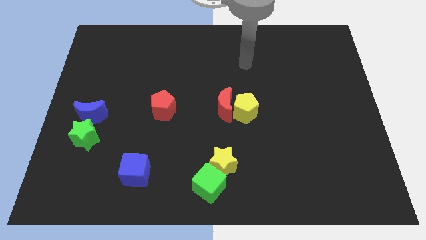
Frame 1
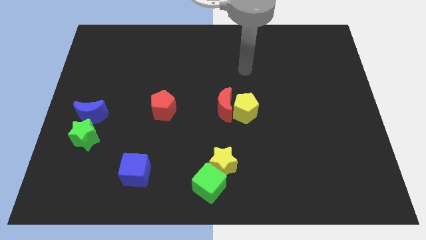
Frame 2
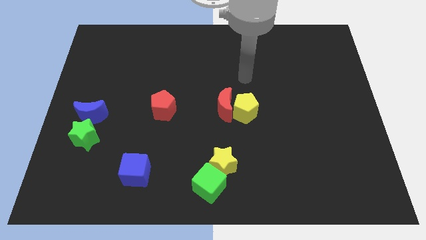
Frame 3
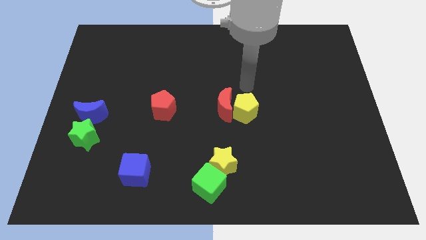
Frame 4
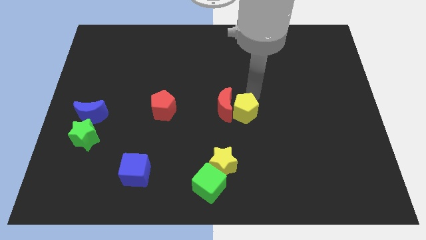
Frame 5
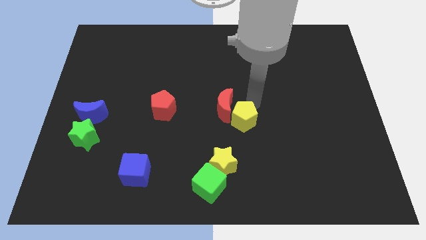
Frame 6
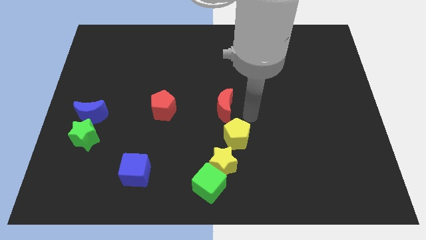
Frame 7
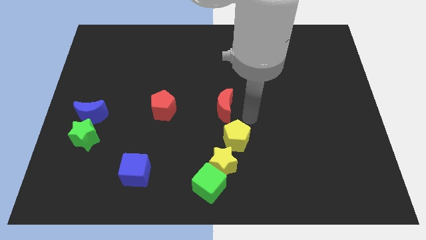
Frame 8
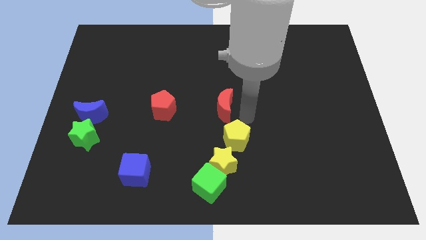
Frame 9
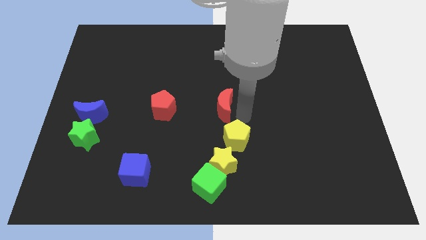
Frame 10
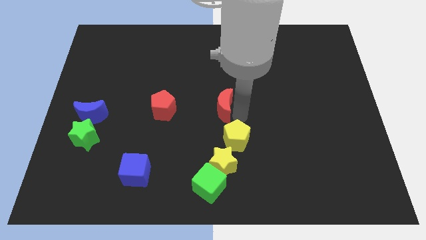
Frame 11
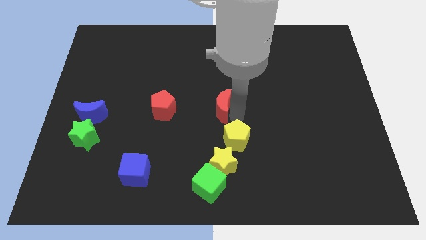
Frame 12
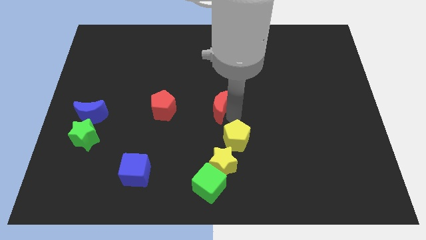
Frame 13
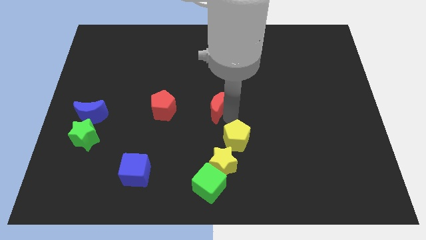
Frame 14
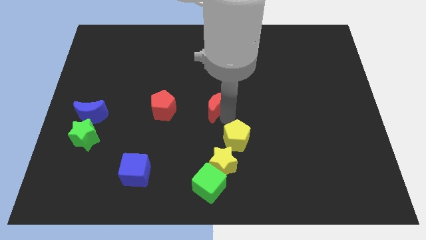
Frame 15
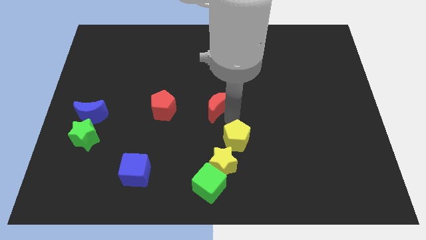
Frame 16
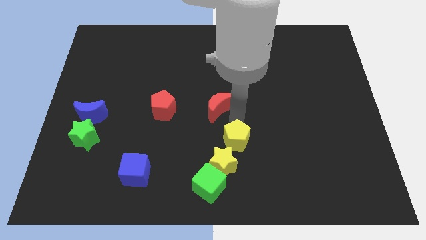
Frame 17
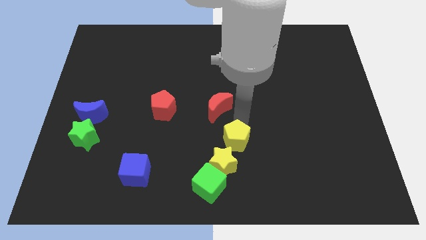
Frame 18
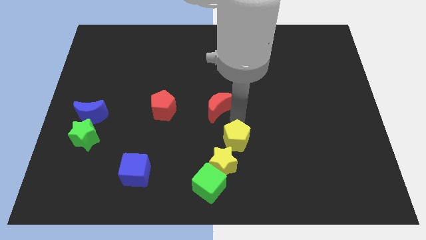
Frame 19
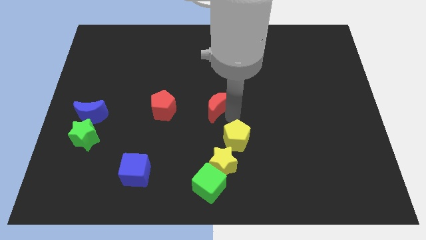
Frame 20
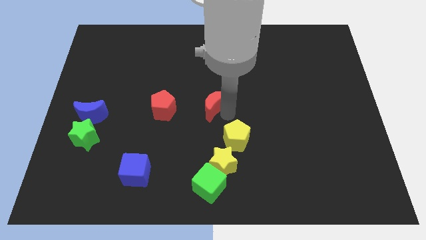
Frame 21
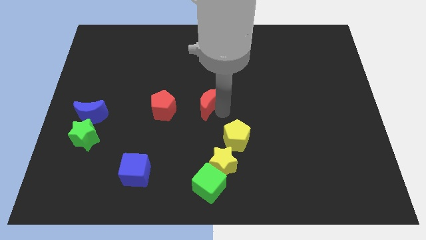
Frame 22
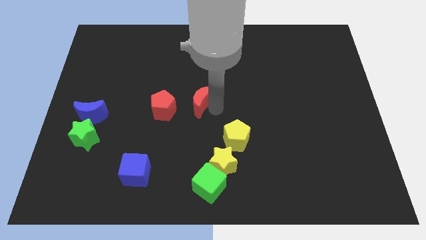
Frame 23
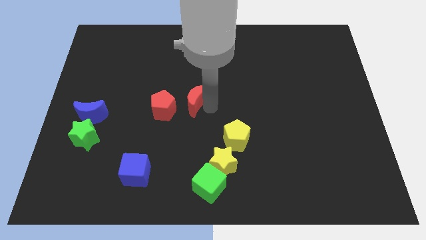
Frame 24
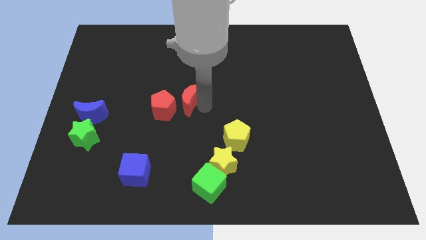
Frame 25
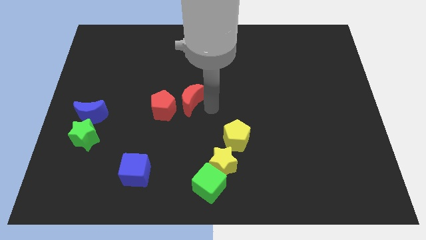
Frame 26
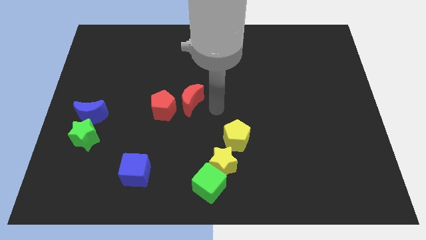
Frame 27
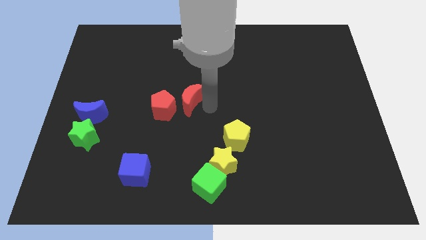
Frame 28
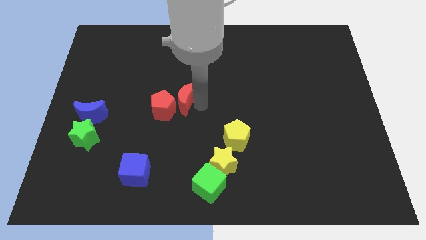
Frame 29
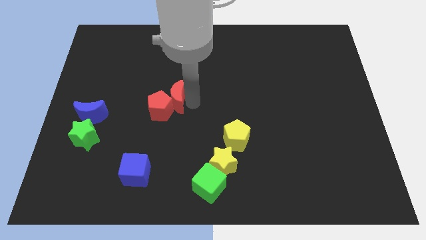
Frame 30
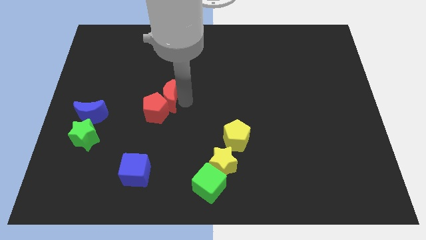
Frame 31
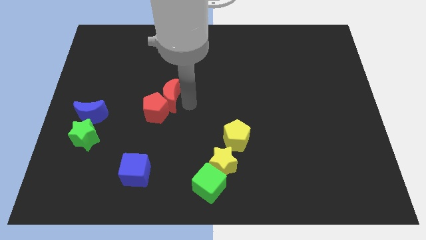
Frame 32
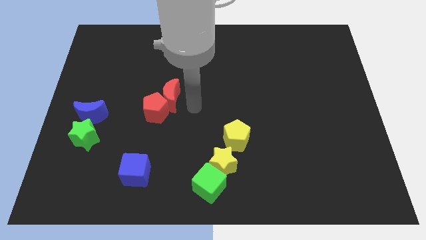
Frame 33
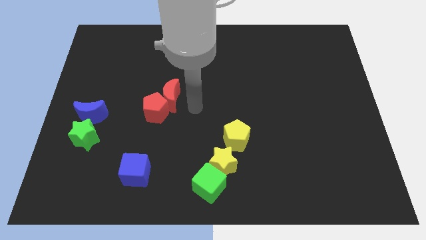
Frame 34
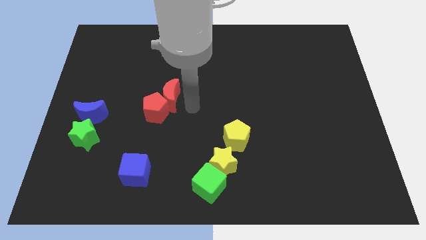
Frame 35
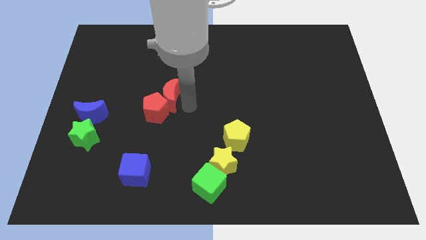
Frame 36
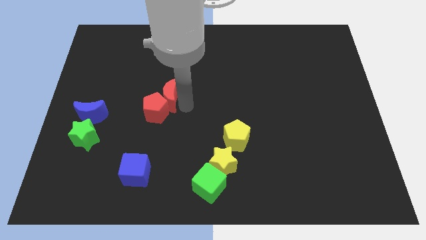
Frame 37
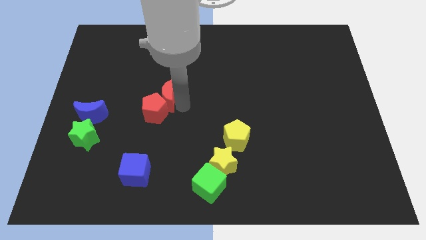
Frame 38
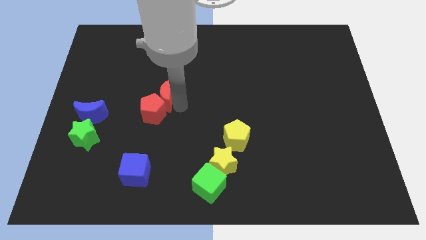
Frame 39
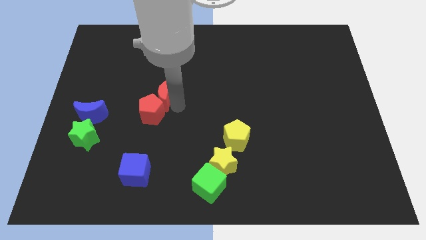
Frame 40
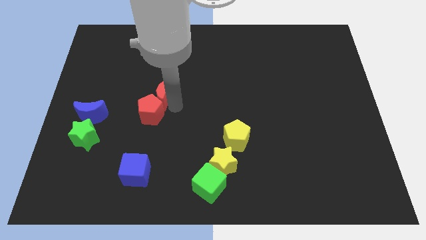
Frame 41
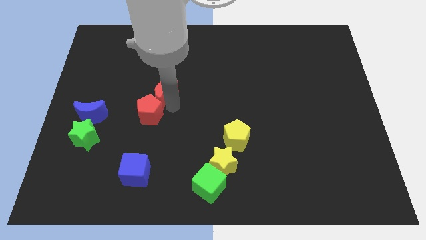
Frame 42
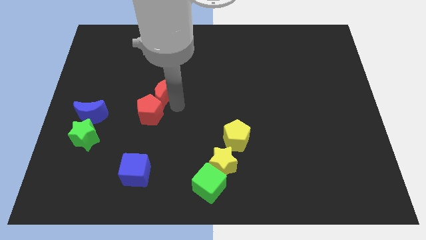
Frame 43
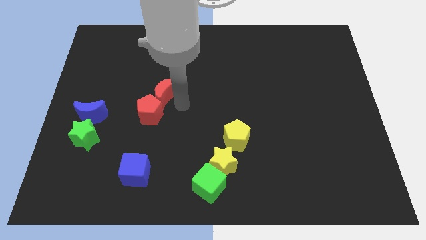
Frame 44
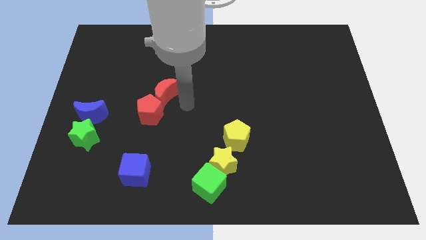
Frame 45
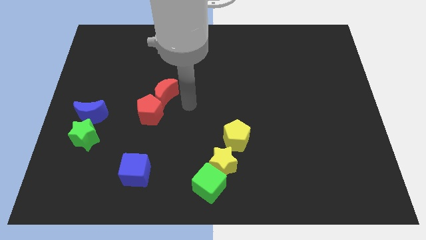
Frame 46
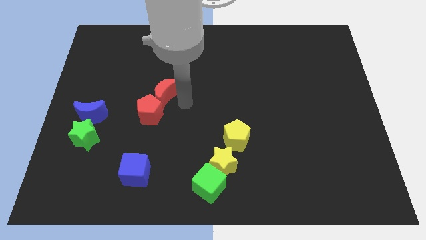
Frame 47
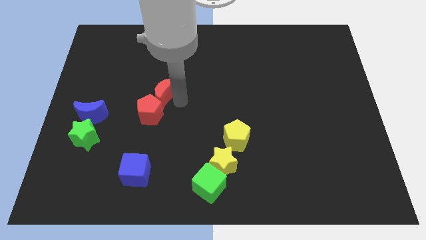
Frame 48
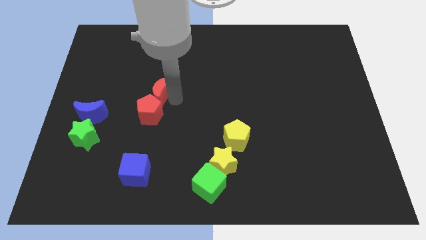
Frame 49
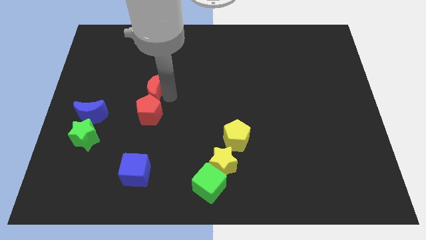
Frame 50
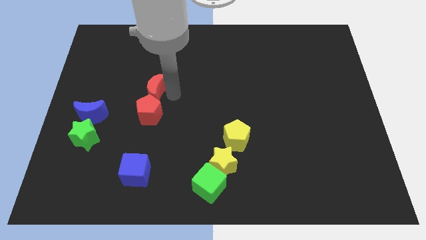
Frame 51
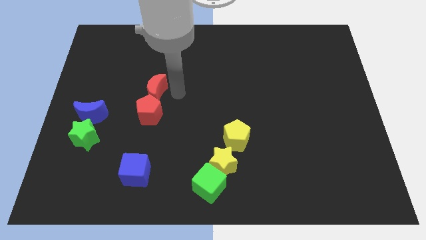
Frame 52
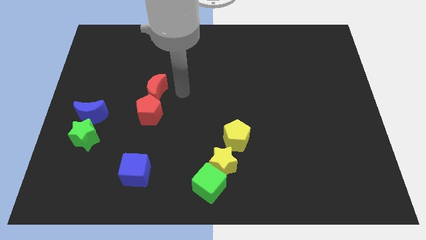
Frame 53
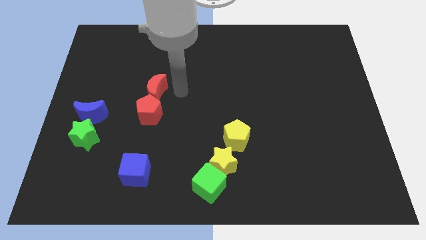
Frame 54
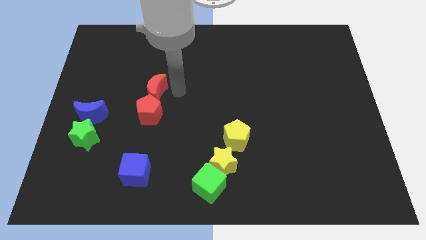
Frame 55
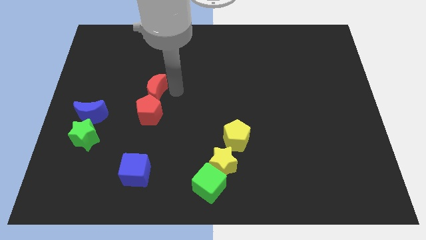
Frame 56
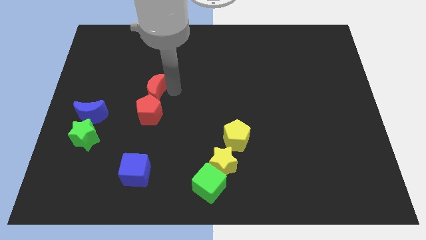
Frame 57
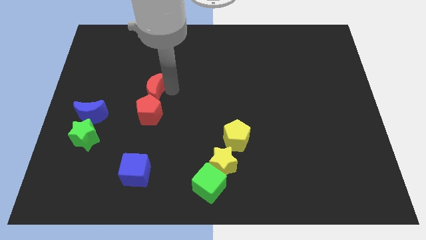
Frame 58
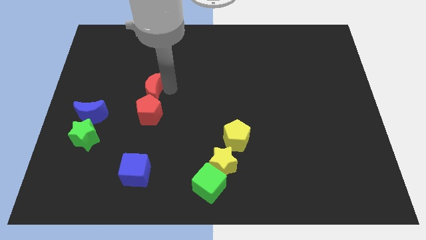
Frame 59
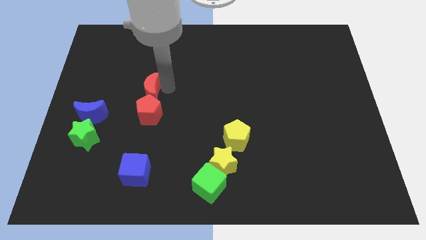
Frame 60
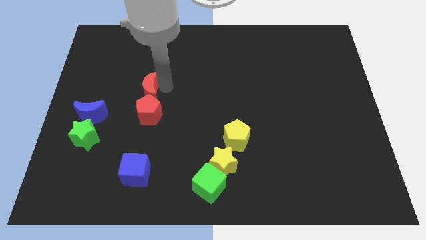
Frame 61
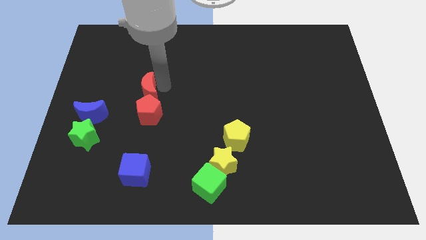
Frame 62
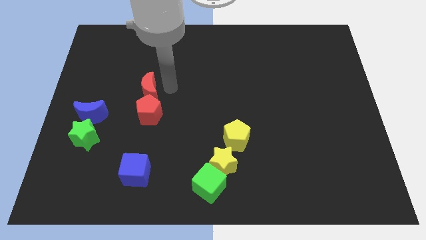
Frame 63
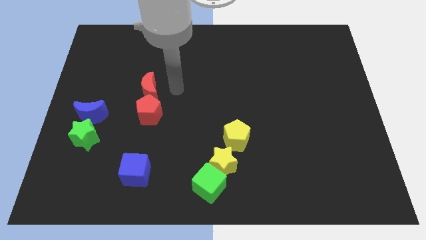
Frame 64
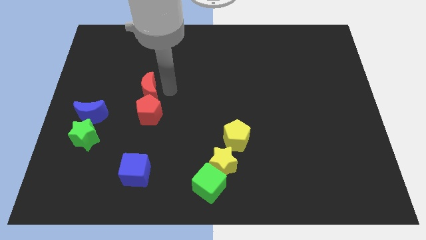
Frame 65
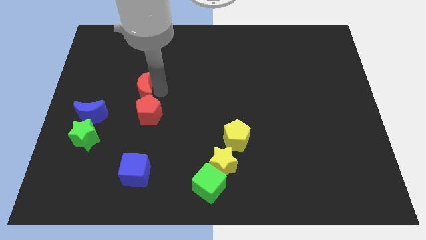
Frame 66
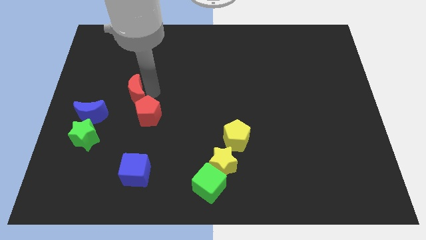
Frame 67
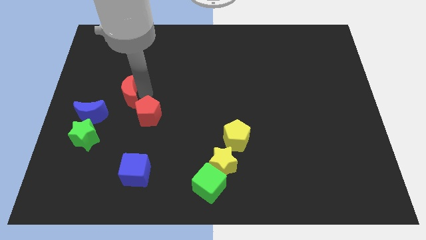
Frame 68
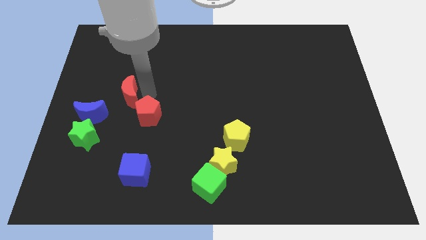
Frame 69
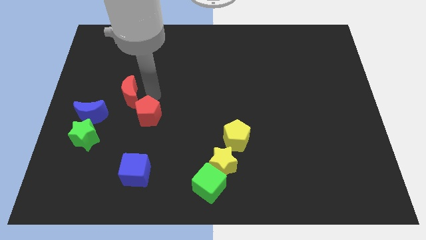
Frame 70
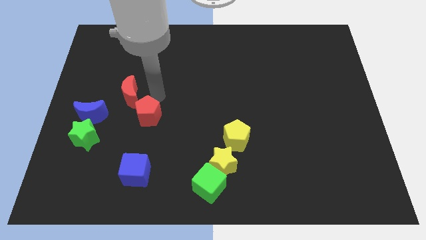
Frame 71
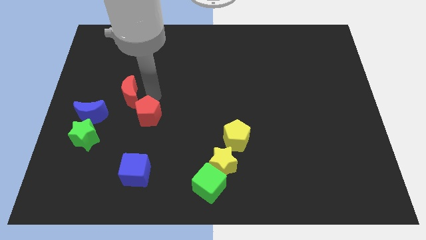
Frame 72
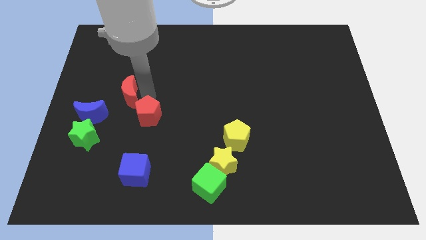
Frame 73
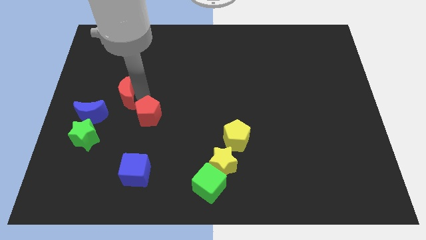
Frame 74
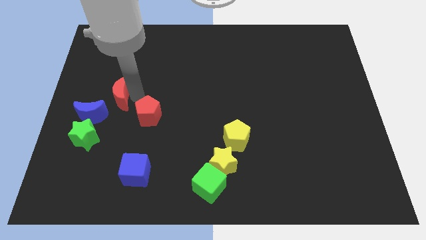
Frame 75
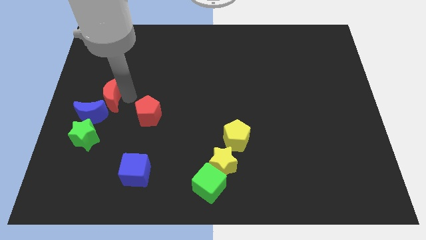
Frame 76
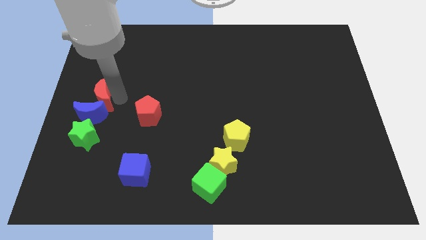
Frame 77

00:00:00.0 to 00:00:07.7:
slide the red moon to the left side of the board
